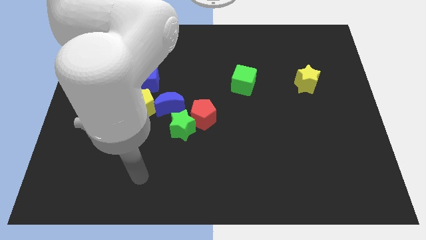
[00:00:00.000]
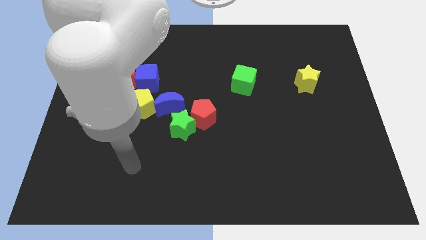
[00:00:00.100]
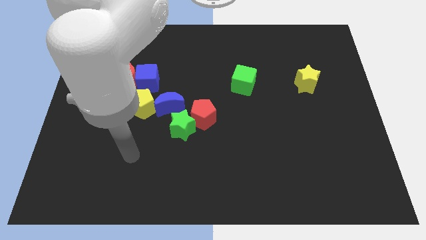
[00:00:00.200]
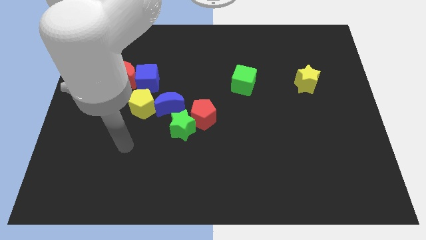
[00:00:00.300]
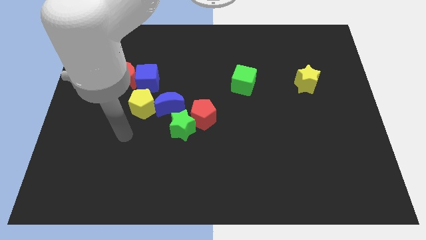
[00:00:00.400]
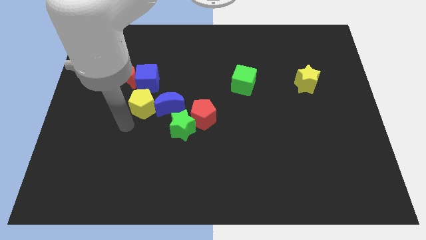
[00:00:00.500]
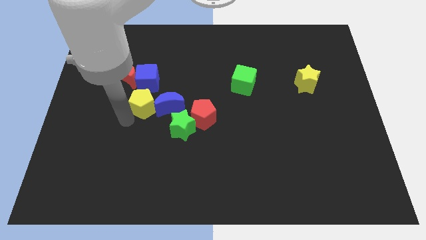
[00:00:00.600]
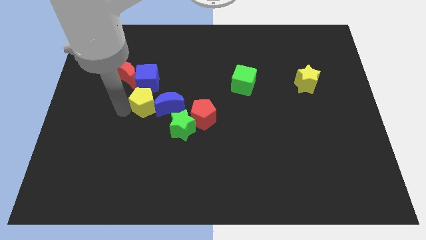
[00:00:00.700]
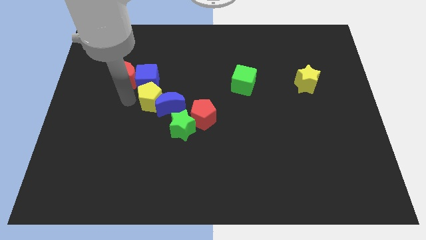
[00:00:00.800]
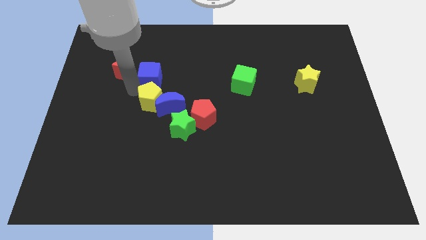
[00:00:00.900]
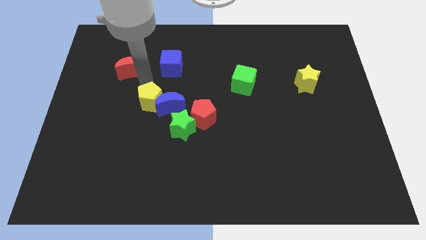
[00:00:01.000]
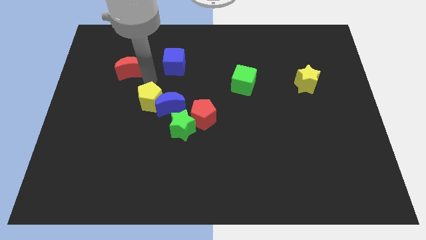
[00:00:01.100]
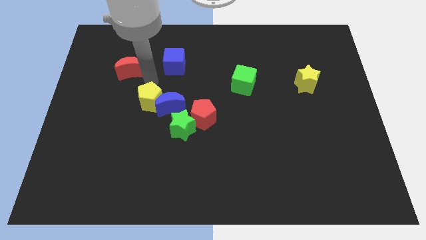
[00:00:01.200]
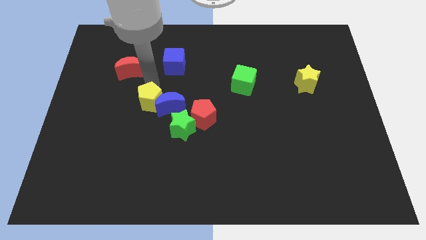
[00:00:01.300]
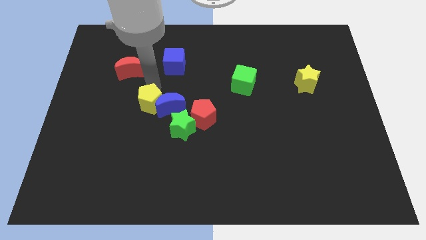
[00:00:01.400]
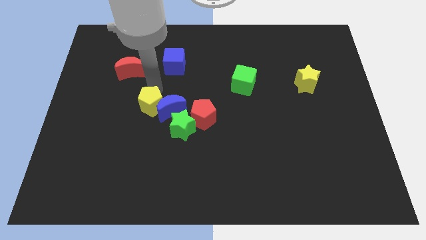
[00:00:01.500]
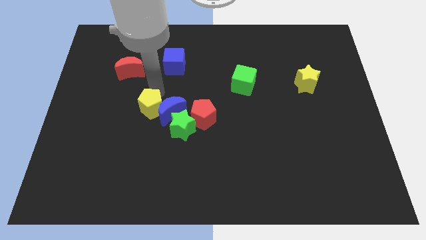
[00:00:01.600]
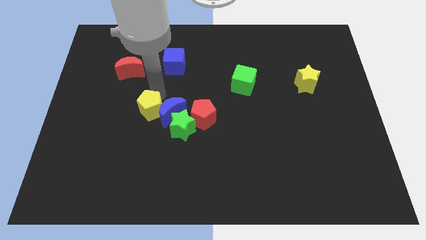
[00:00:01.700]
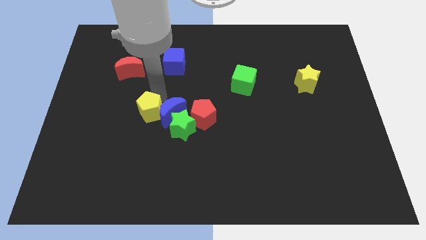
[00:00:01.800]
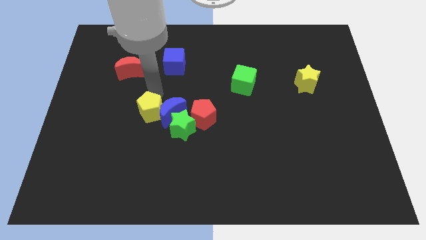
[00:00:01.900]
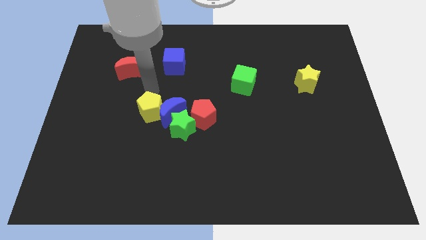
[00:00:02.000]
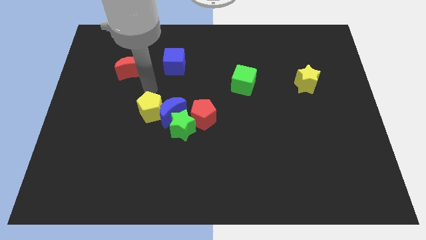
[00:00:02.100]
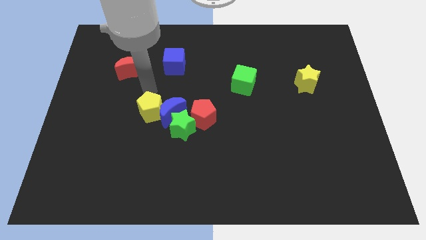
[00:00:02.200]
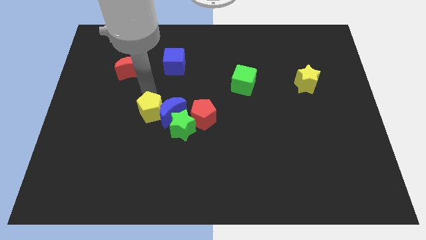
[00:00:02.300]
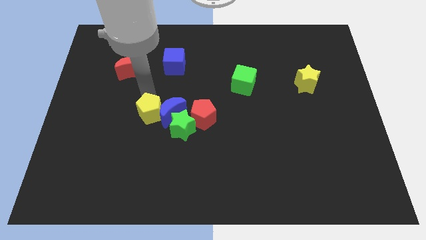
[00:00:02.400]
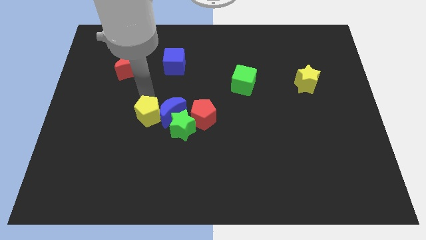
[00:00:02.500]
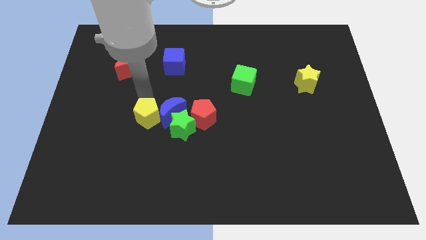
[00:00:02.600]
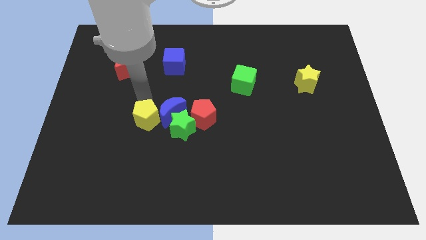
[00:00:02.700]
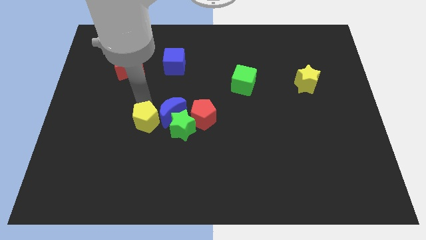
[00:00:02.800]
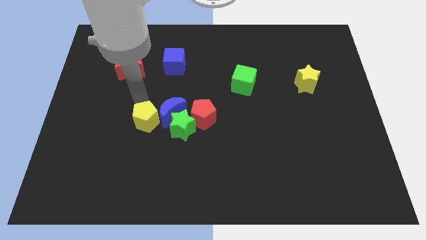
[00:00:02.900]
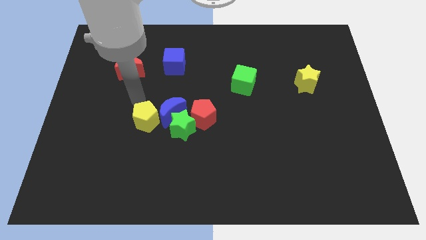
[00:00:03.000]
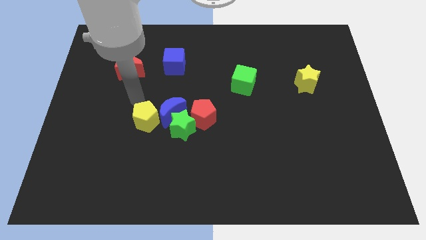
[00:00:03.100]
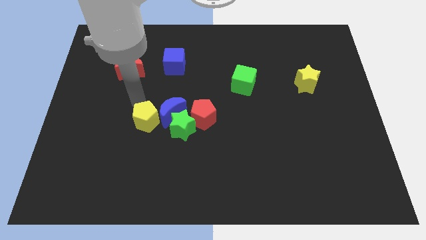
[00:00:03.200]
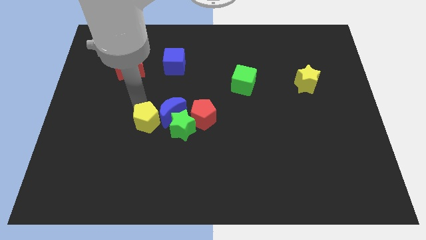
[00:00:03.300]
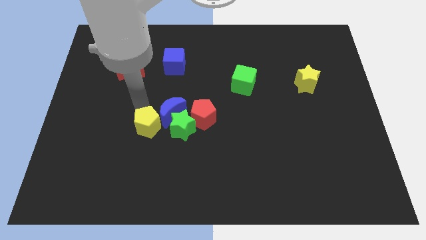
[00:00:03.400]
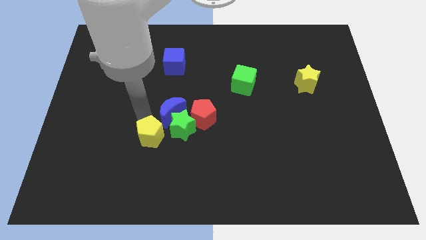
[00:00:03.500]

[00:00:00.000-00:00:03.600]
slide the yellow pentagon slightly downwards and to the right diagonally

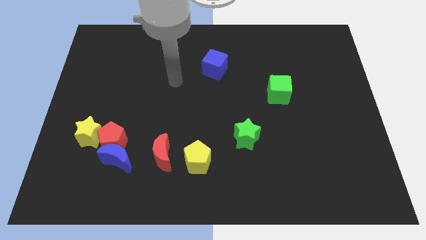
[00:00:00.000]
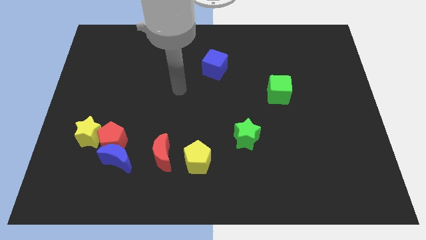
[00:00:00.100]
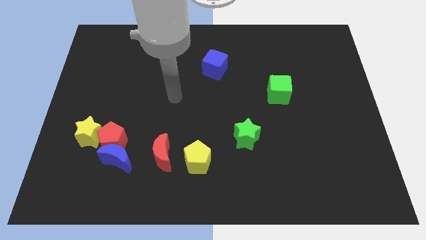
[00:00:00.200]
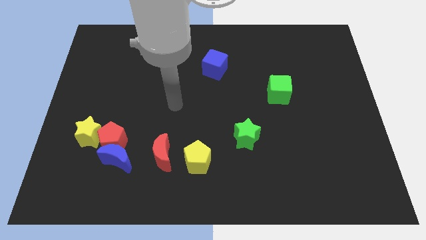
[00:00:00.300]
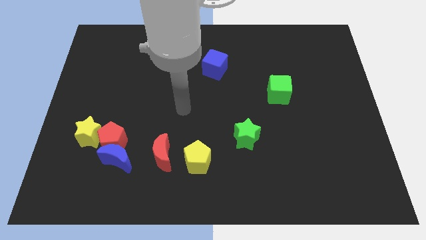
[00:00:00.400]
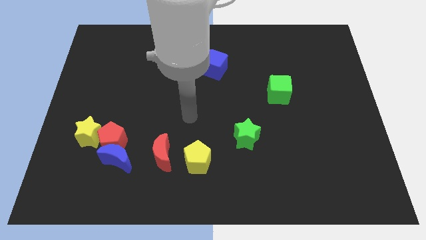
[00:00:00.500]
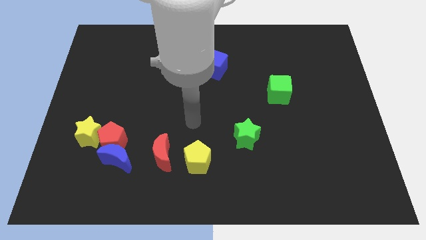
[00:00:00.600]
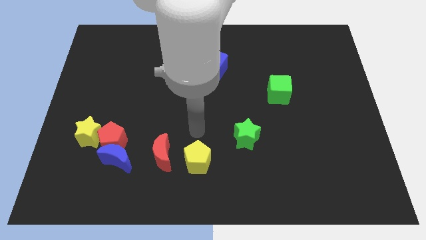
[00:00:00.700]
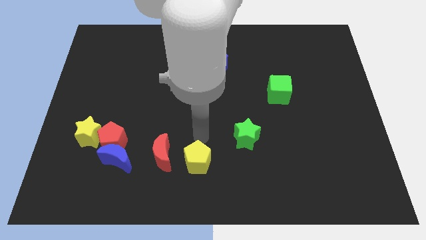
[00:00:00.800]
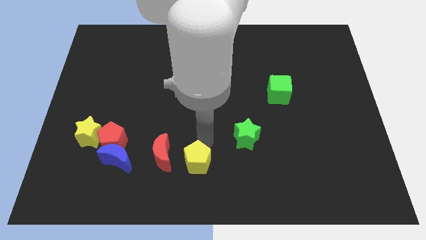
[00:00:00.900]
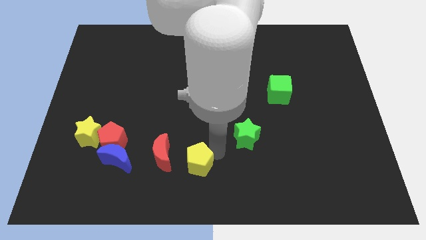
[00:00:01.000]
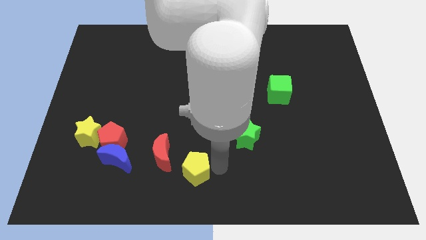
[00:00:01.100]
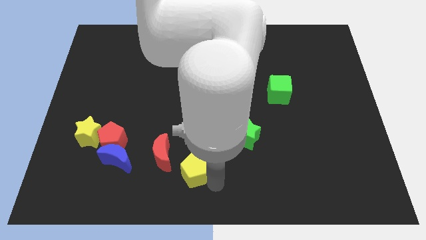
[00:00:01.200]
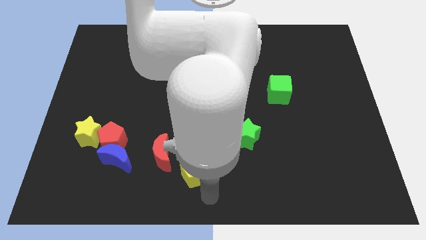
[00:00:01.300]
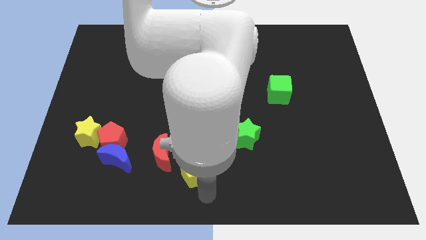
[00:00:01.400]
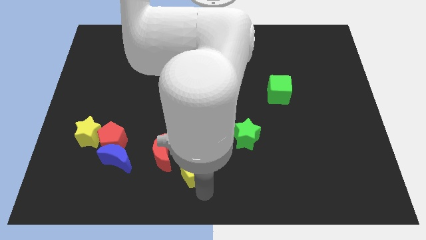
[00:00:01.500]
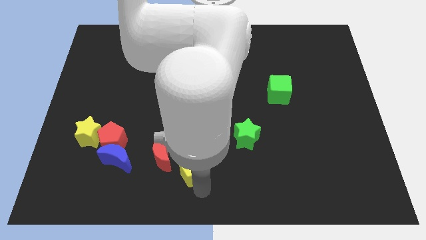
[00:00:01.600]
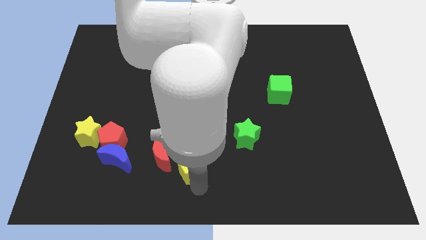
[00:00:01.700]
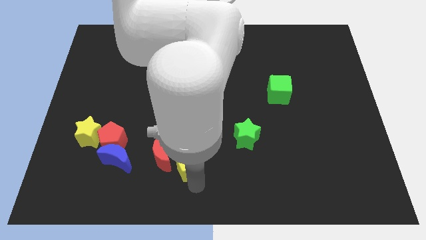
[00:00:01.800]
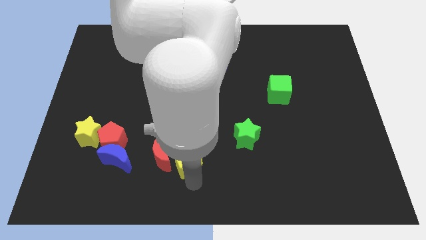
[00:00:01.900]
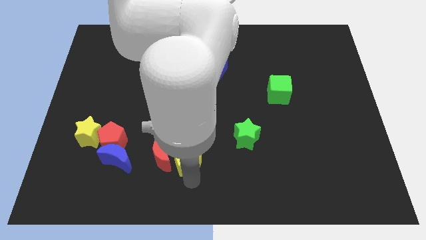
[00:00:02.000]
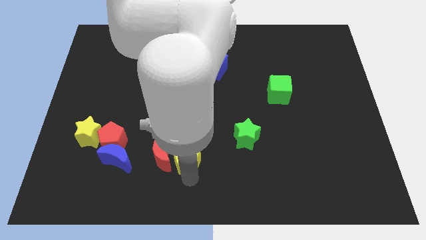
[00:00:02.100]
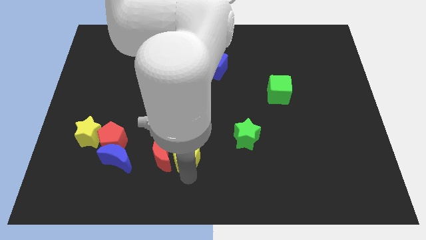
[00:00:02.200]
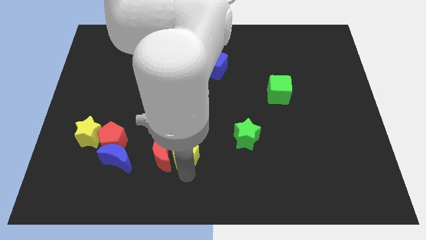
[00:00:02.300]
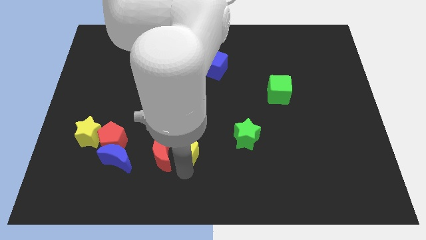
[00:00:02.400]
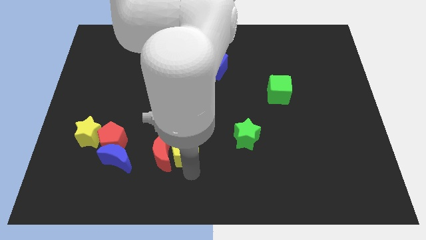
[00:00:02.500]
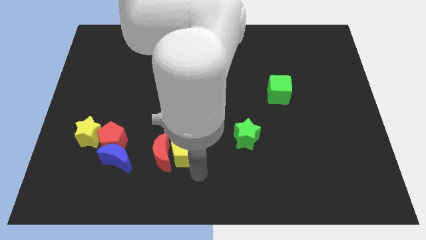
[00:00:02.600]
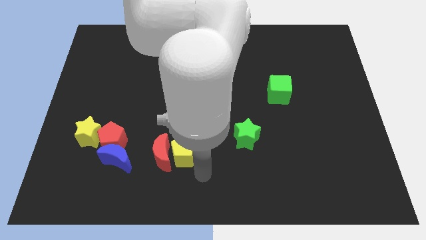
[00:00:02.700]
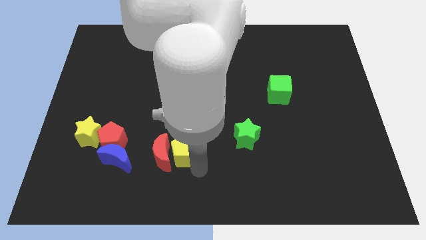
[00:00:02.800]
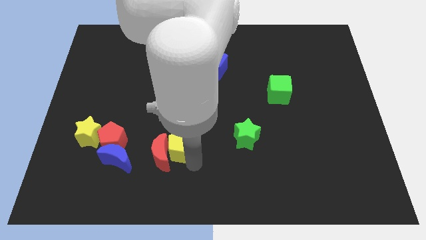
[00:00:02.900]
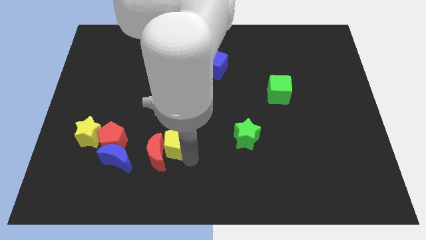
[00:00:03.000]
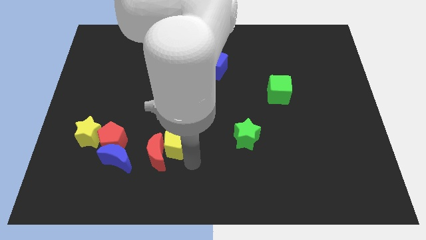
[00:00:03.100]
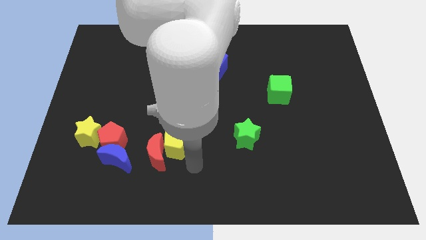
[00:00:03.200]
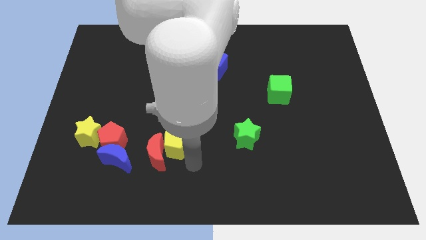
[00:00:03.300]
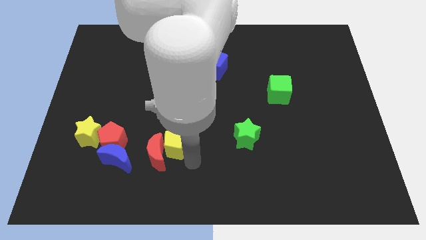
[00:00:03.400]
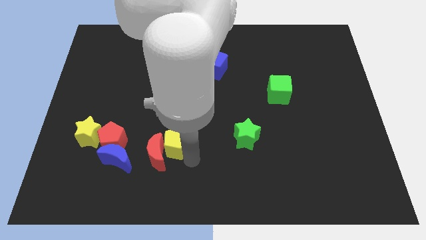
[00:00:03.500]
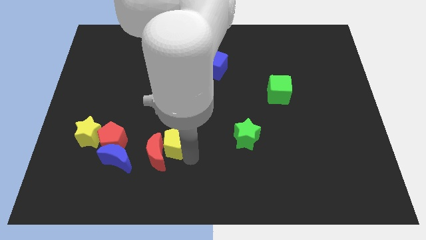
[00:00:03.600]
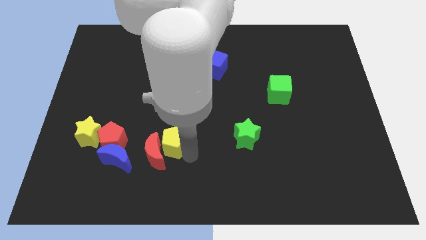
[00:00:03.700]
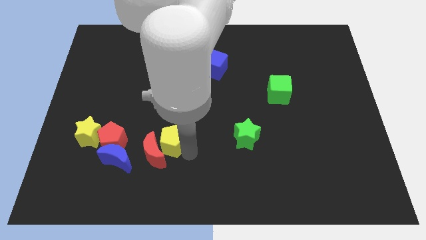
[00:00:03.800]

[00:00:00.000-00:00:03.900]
slide the yellow pentagon upwards and left a little bit

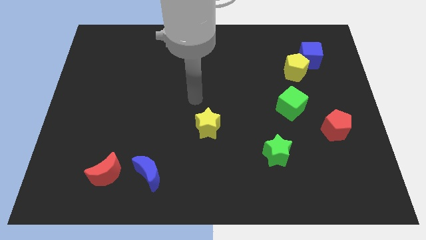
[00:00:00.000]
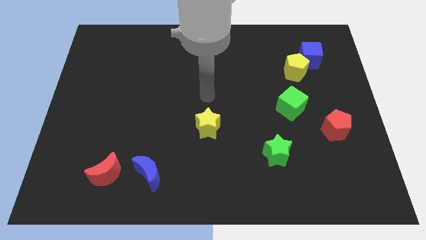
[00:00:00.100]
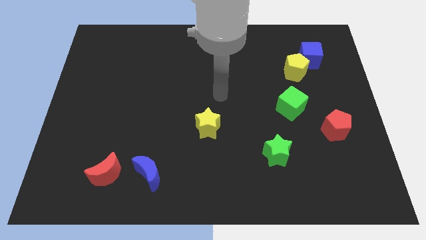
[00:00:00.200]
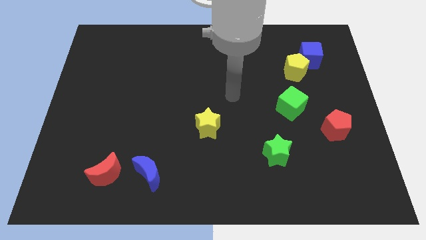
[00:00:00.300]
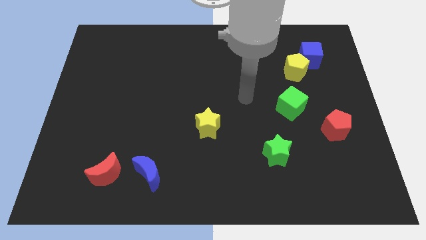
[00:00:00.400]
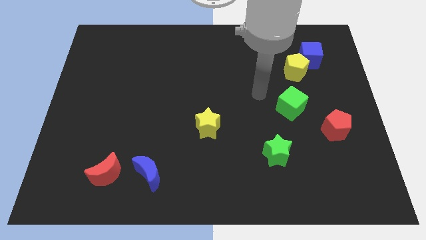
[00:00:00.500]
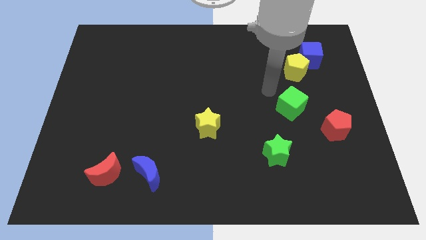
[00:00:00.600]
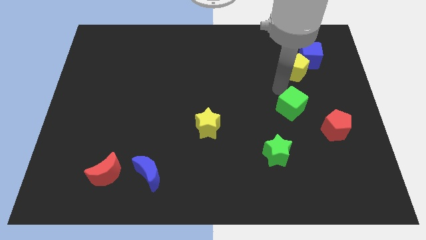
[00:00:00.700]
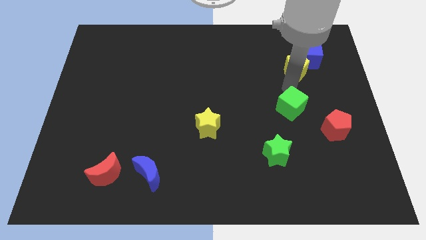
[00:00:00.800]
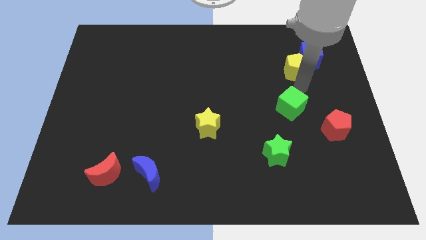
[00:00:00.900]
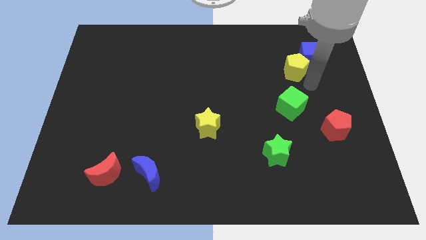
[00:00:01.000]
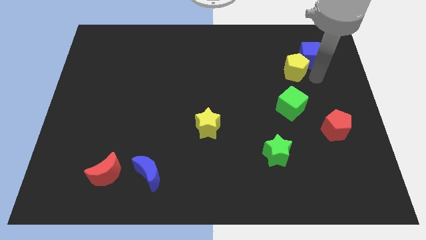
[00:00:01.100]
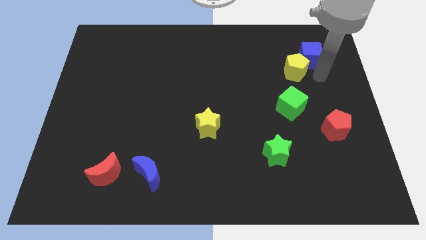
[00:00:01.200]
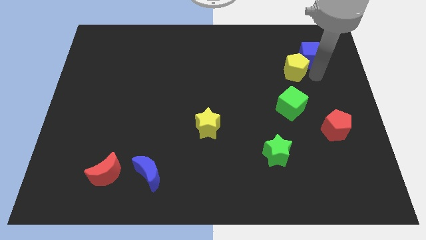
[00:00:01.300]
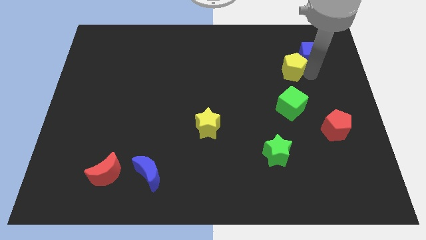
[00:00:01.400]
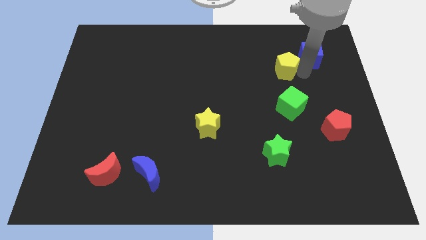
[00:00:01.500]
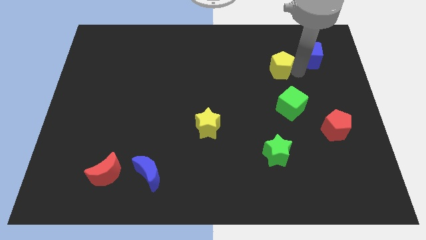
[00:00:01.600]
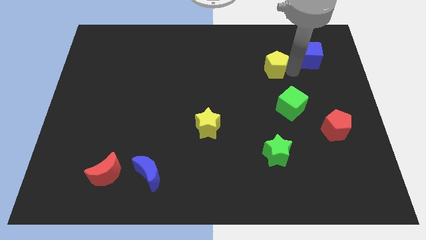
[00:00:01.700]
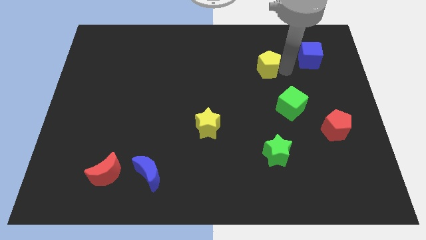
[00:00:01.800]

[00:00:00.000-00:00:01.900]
push the yellow pentagon a little bit to the left
